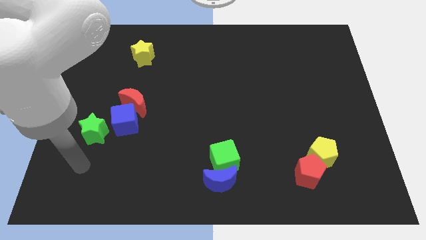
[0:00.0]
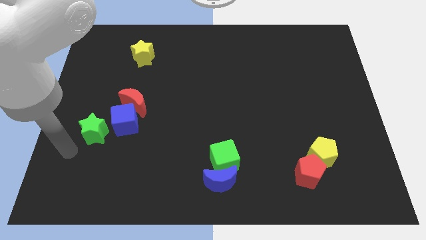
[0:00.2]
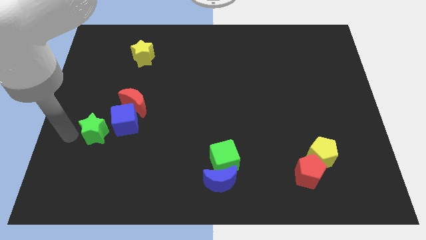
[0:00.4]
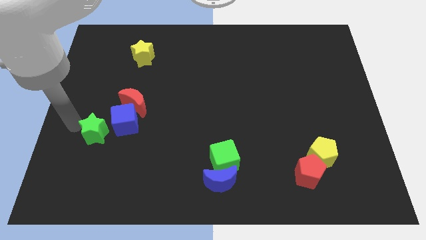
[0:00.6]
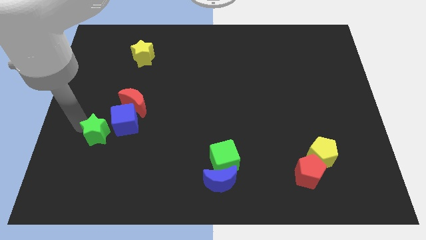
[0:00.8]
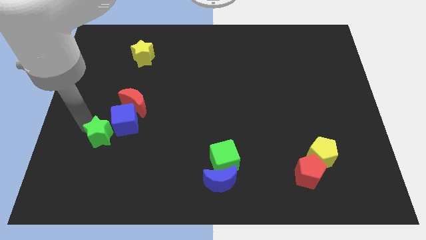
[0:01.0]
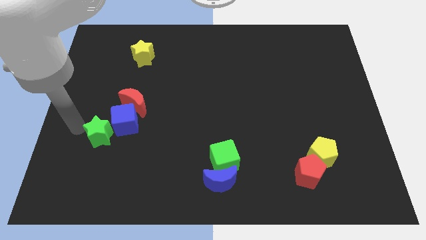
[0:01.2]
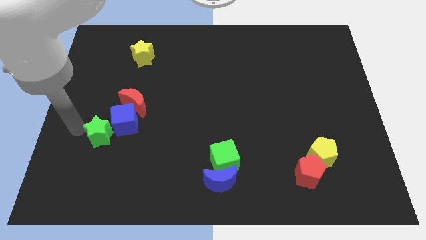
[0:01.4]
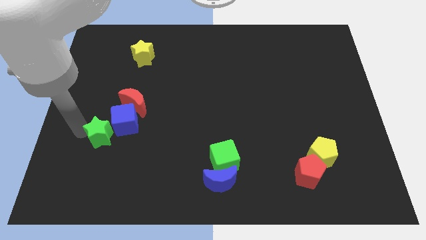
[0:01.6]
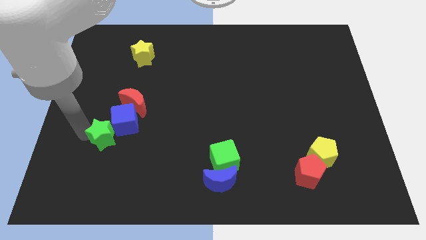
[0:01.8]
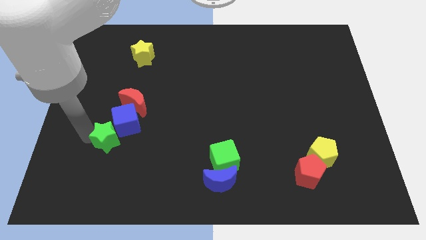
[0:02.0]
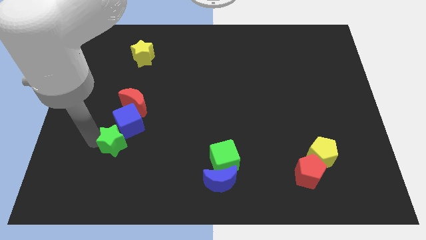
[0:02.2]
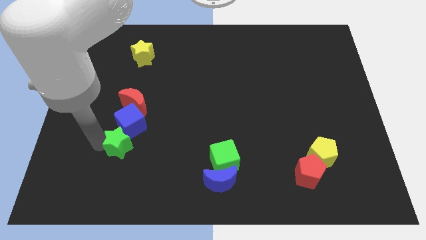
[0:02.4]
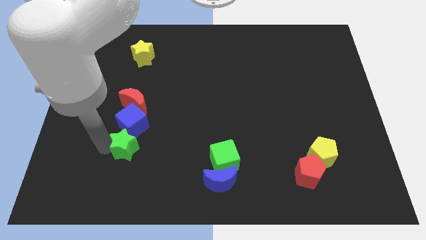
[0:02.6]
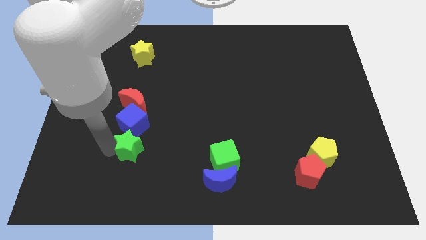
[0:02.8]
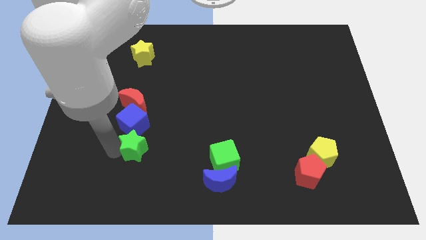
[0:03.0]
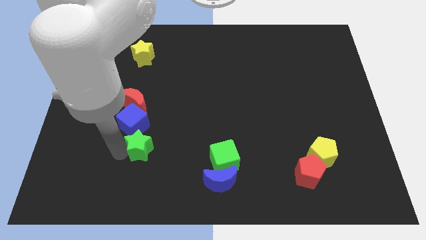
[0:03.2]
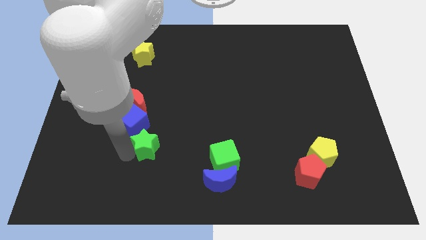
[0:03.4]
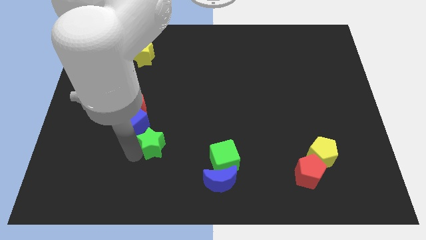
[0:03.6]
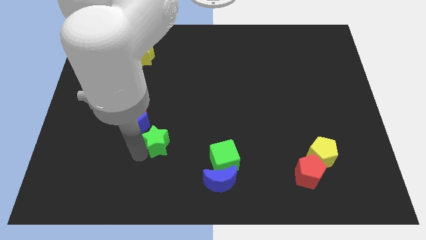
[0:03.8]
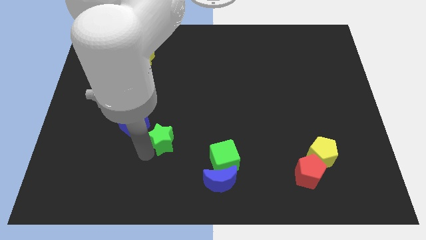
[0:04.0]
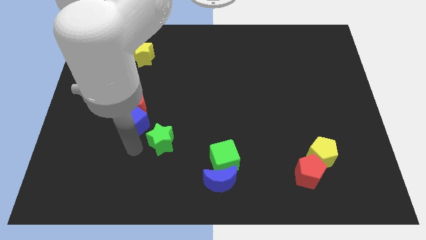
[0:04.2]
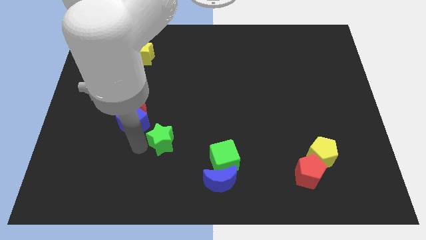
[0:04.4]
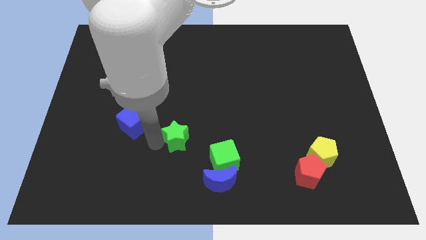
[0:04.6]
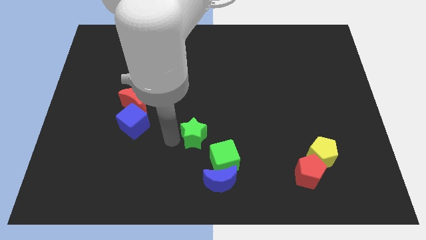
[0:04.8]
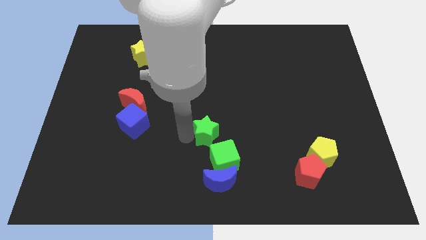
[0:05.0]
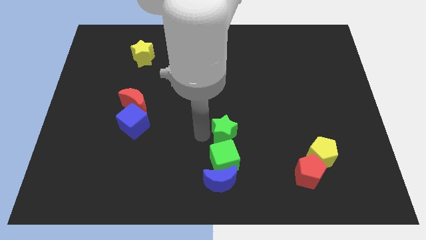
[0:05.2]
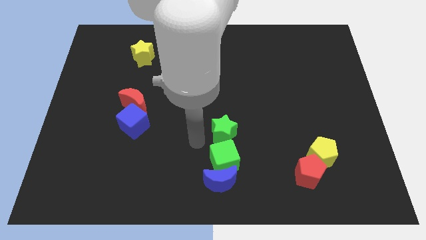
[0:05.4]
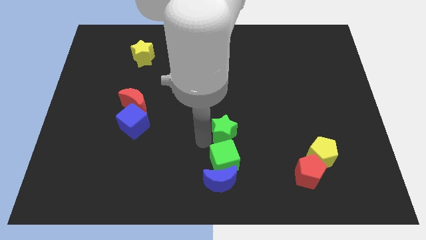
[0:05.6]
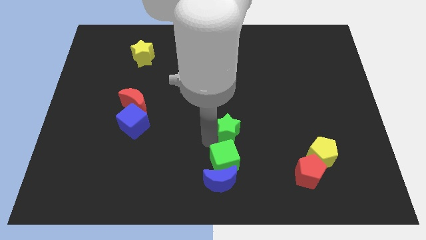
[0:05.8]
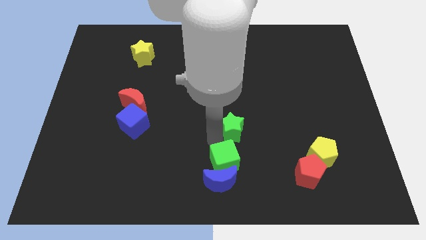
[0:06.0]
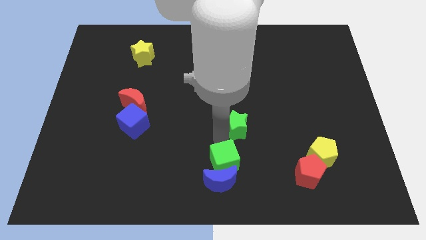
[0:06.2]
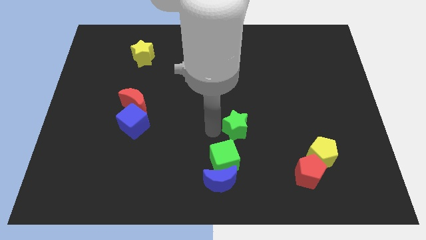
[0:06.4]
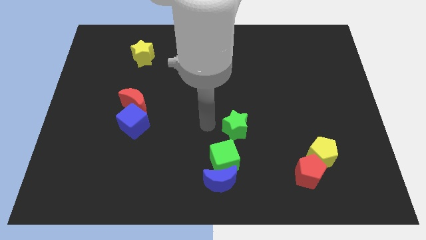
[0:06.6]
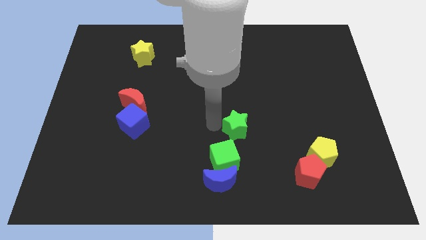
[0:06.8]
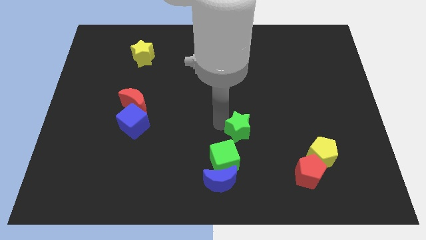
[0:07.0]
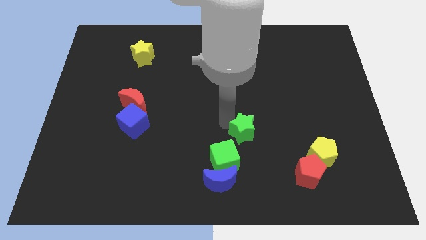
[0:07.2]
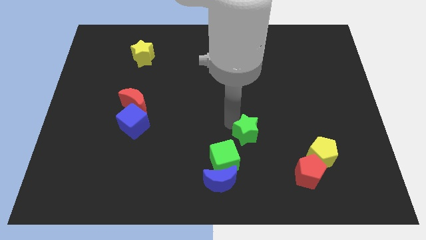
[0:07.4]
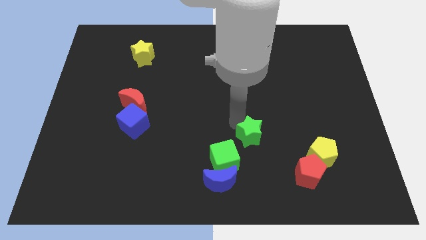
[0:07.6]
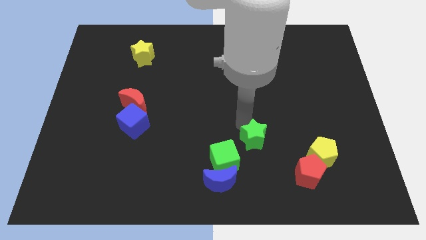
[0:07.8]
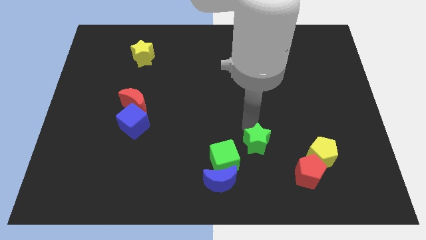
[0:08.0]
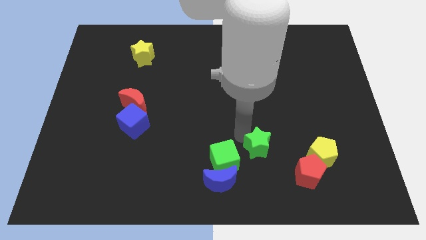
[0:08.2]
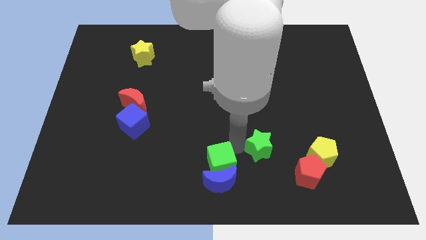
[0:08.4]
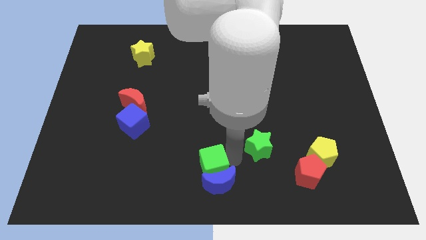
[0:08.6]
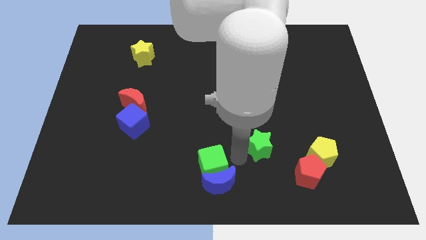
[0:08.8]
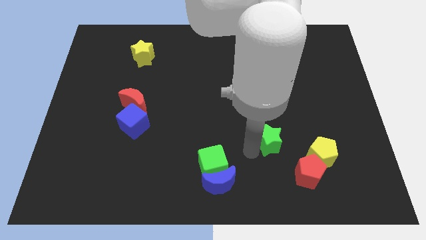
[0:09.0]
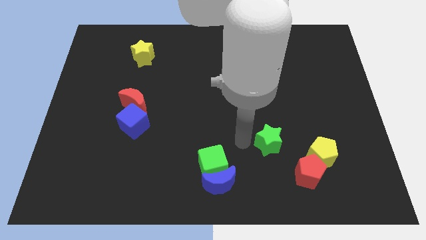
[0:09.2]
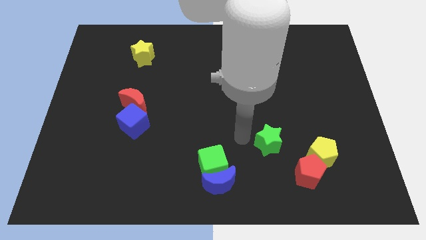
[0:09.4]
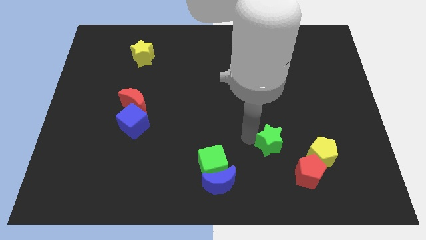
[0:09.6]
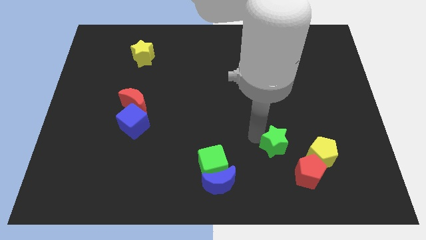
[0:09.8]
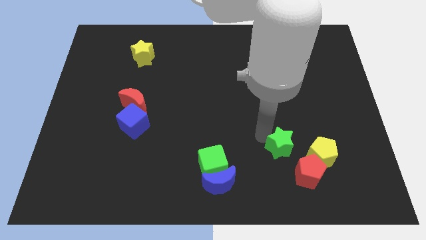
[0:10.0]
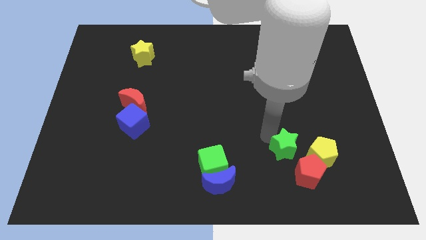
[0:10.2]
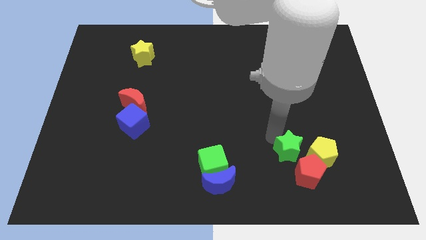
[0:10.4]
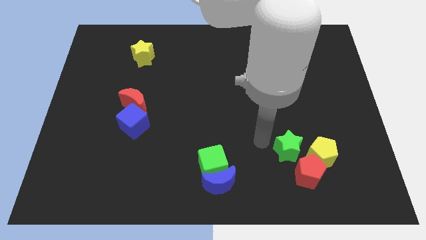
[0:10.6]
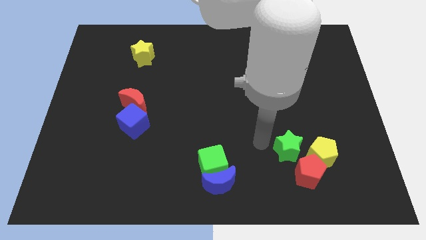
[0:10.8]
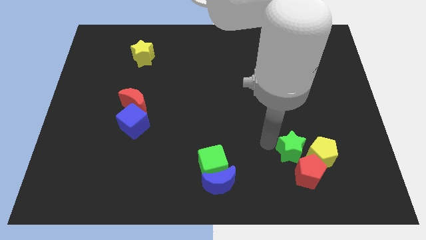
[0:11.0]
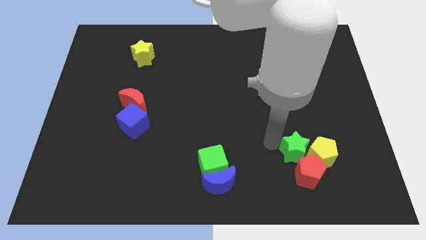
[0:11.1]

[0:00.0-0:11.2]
move the green star next to the yellow pentagon

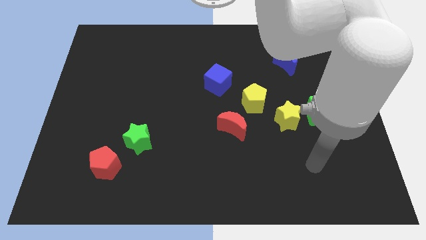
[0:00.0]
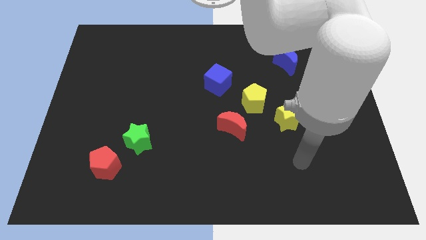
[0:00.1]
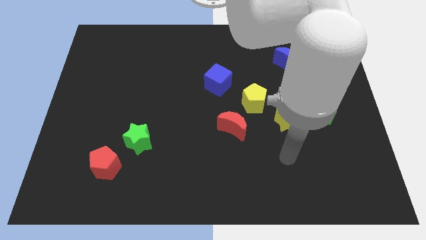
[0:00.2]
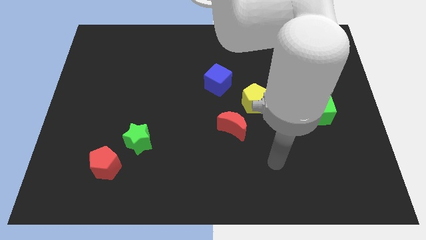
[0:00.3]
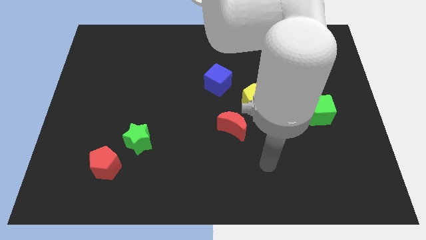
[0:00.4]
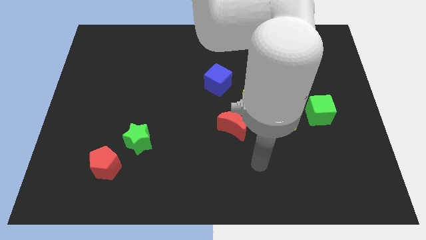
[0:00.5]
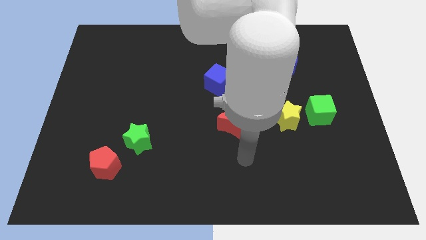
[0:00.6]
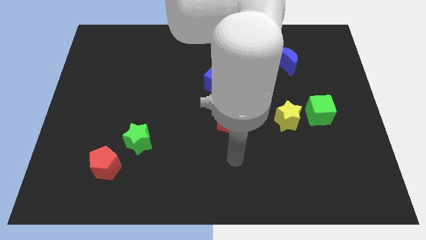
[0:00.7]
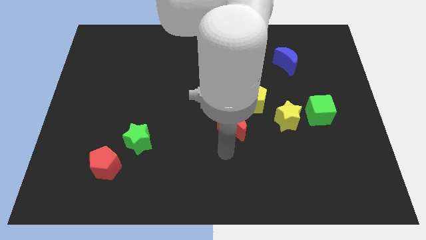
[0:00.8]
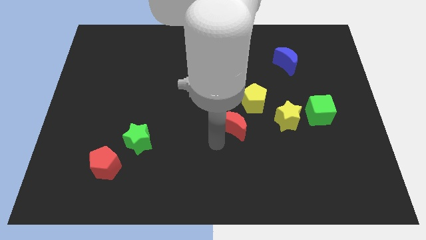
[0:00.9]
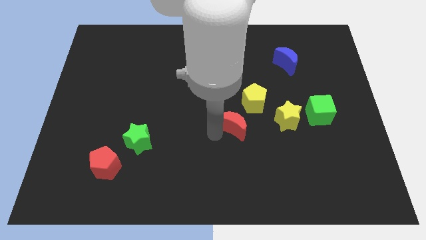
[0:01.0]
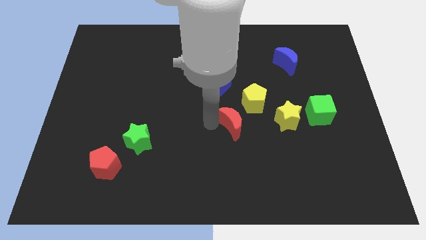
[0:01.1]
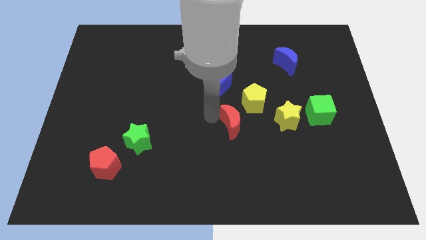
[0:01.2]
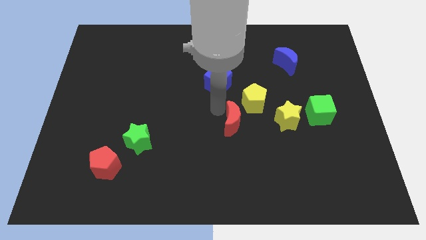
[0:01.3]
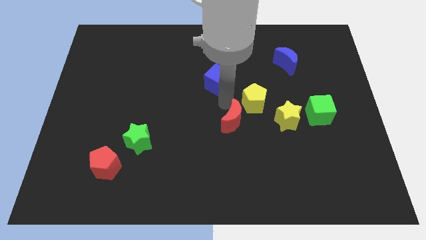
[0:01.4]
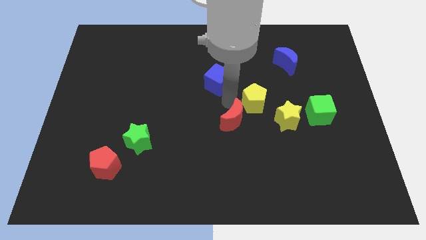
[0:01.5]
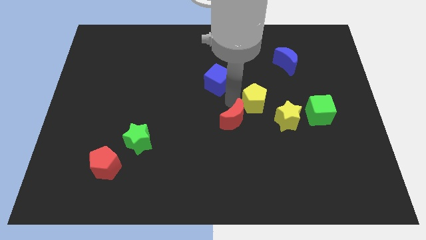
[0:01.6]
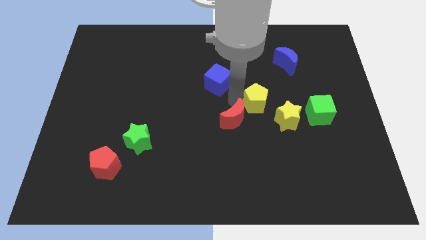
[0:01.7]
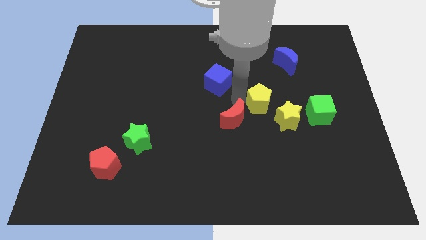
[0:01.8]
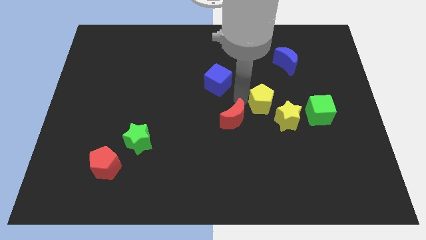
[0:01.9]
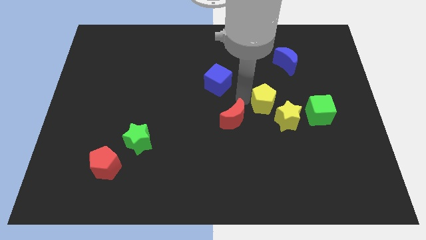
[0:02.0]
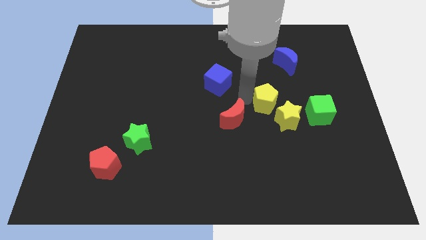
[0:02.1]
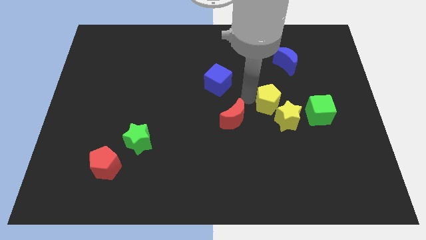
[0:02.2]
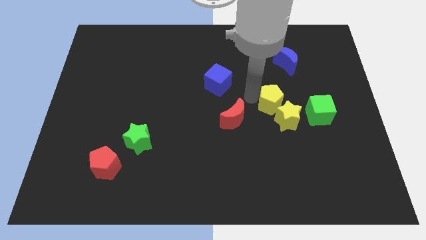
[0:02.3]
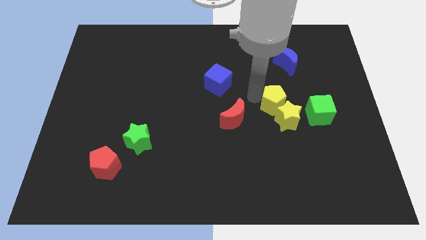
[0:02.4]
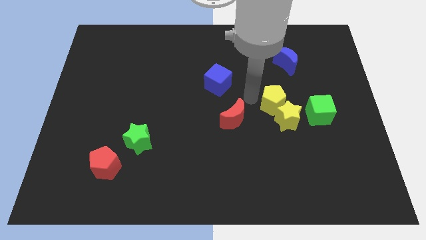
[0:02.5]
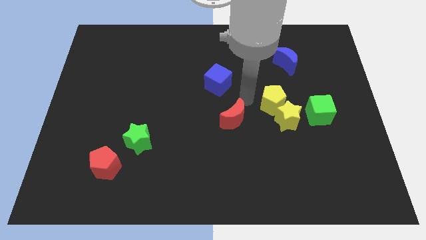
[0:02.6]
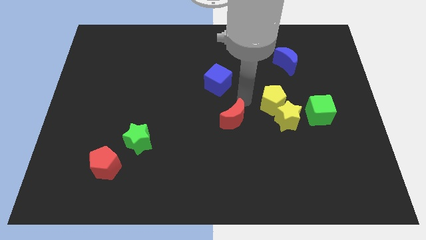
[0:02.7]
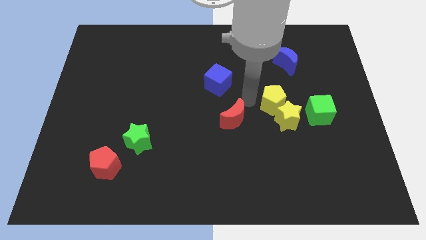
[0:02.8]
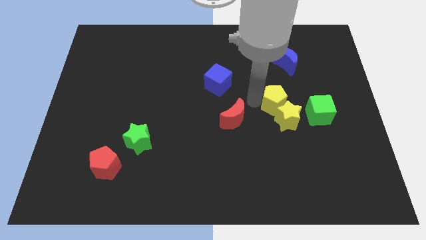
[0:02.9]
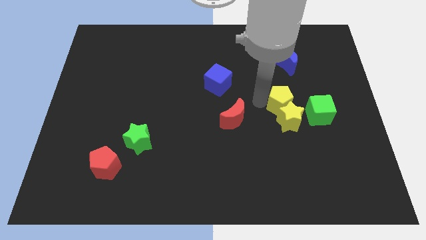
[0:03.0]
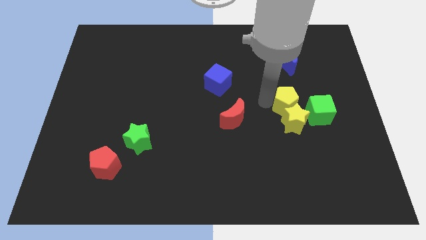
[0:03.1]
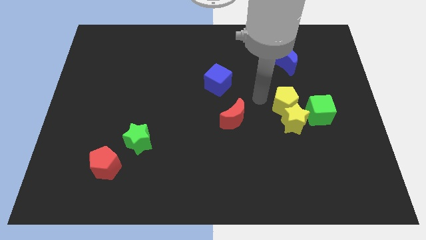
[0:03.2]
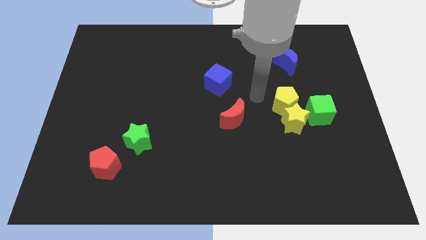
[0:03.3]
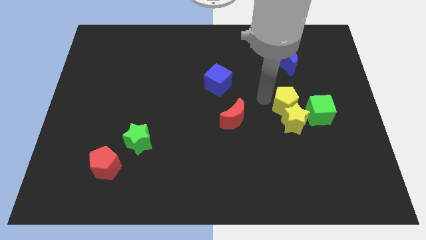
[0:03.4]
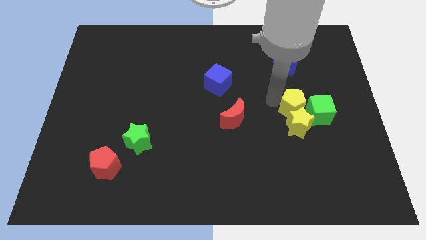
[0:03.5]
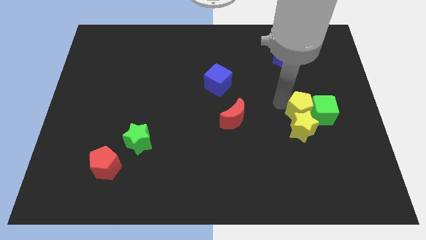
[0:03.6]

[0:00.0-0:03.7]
put the yellow pentagon close to the green cube
